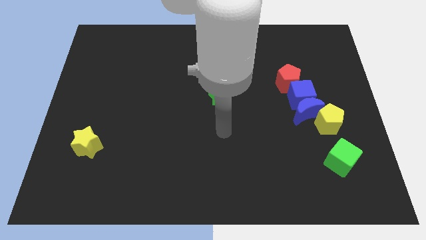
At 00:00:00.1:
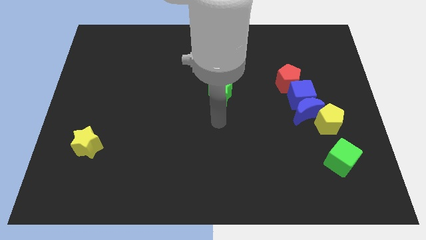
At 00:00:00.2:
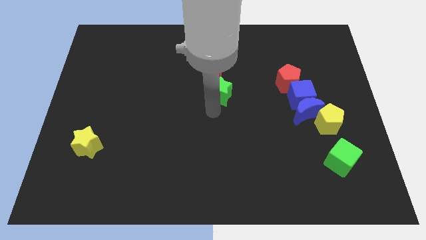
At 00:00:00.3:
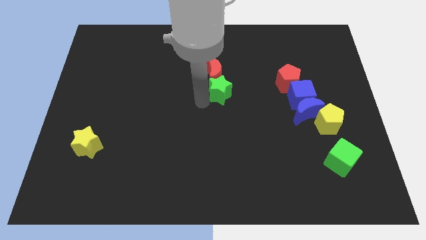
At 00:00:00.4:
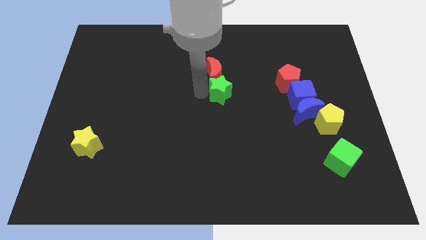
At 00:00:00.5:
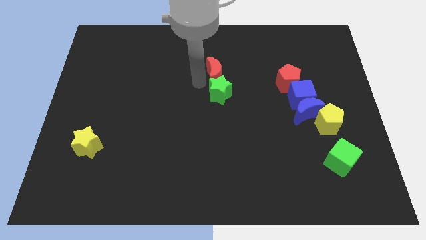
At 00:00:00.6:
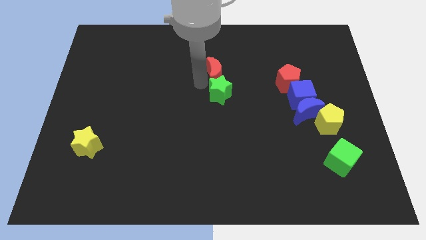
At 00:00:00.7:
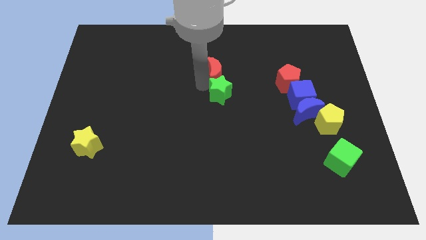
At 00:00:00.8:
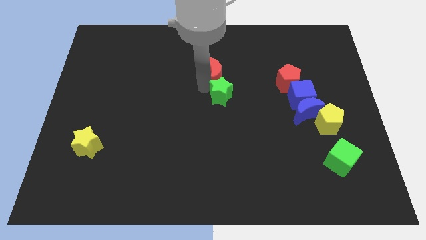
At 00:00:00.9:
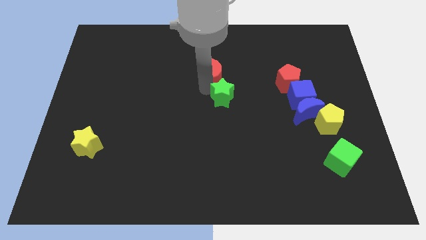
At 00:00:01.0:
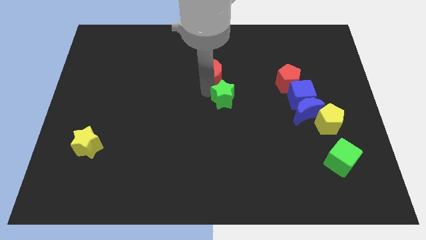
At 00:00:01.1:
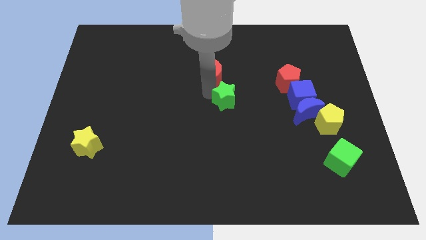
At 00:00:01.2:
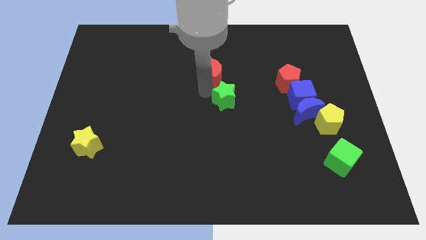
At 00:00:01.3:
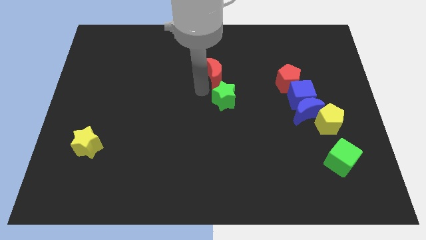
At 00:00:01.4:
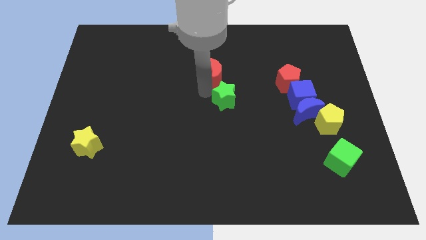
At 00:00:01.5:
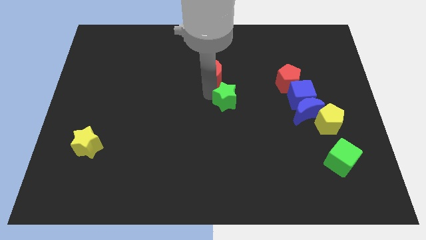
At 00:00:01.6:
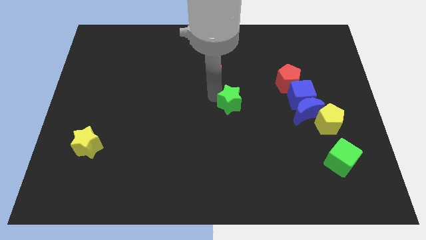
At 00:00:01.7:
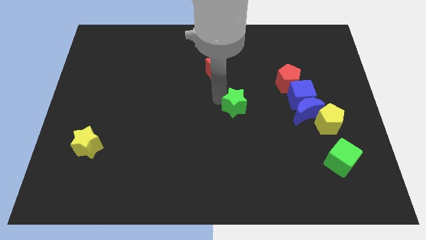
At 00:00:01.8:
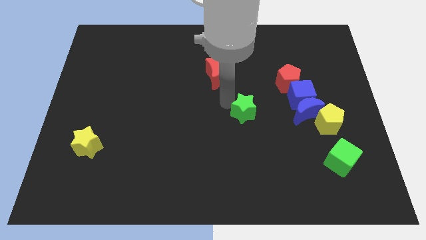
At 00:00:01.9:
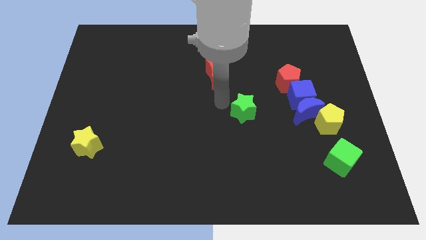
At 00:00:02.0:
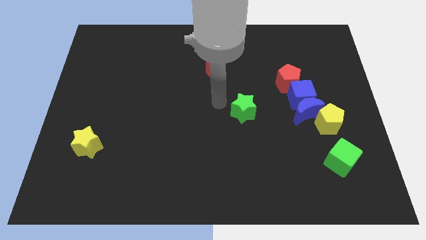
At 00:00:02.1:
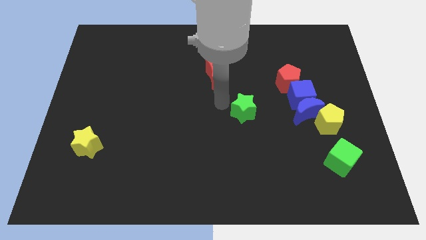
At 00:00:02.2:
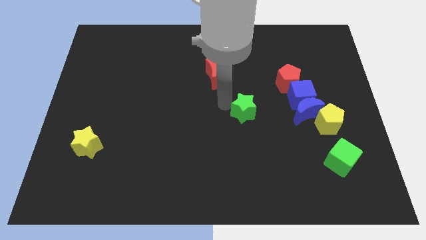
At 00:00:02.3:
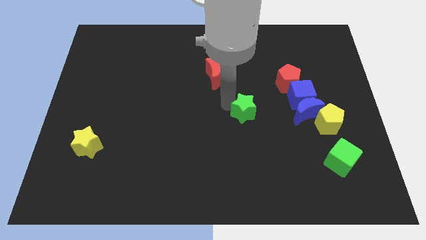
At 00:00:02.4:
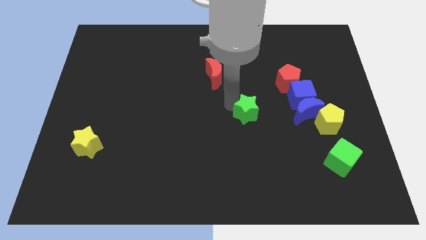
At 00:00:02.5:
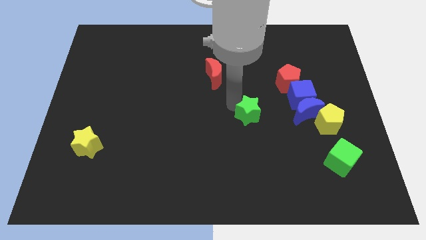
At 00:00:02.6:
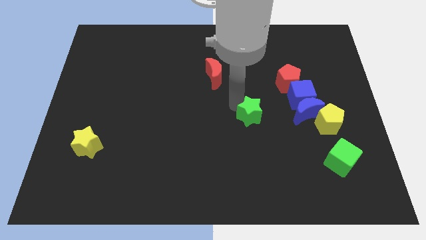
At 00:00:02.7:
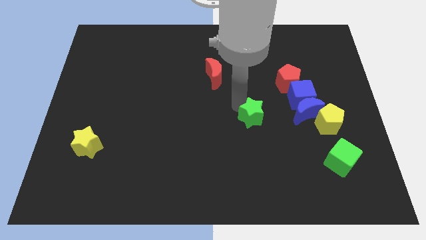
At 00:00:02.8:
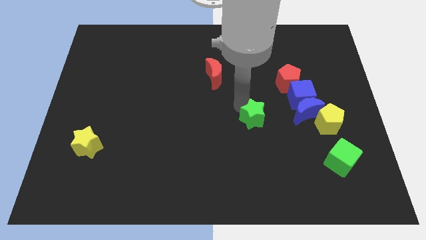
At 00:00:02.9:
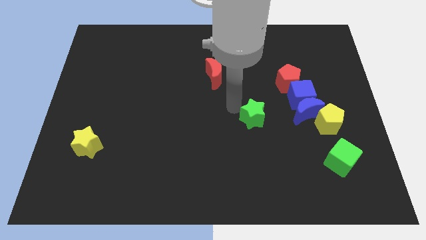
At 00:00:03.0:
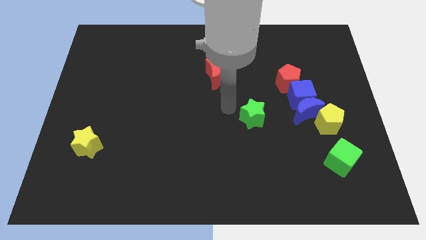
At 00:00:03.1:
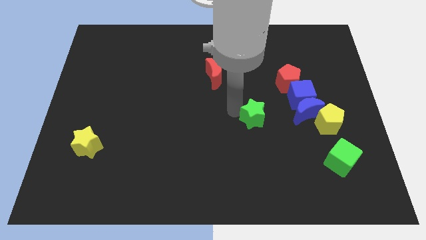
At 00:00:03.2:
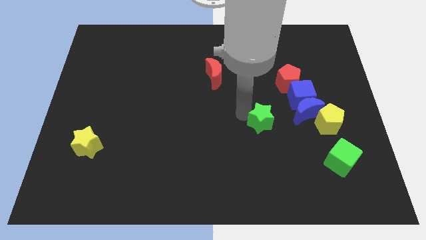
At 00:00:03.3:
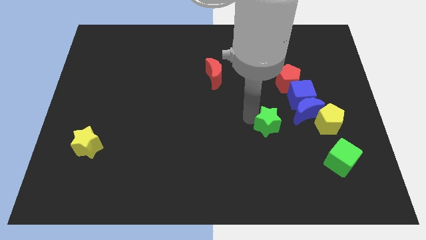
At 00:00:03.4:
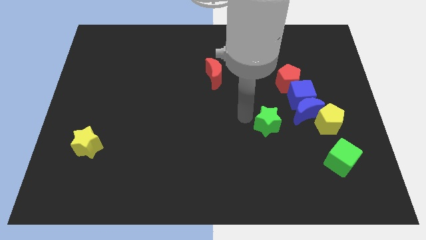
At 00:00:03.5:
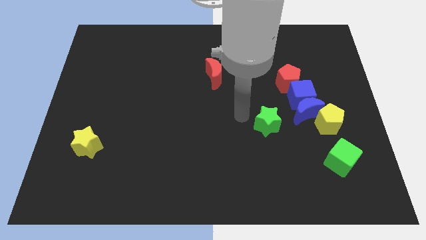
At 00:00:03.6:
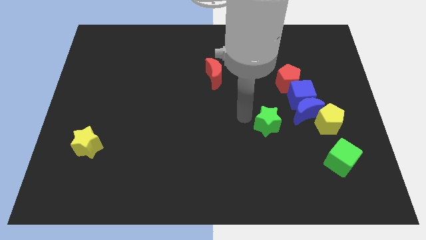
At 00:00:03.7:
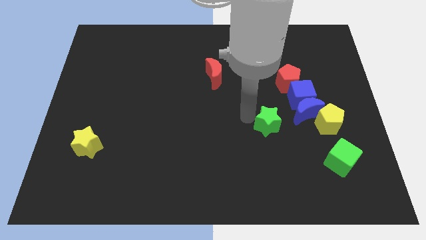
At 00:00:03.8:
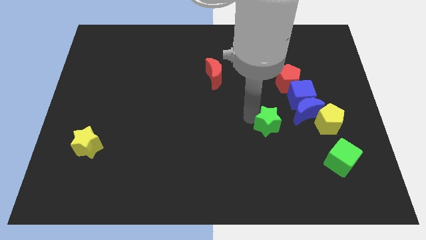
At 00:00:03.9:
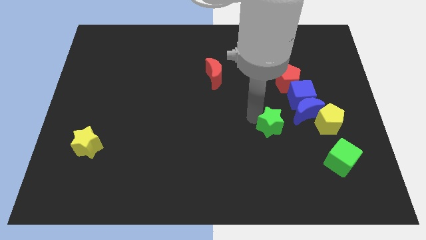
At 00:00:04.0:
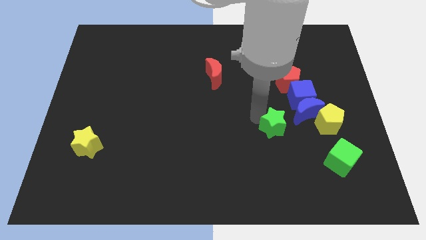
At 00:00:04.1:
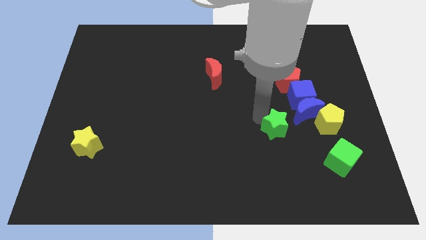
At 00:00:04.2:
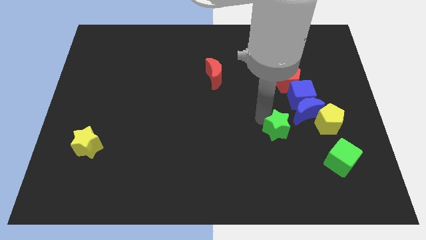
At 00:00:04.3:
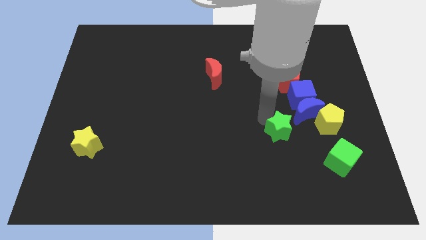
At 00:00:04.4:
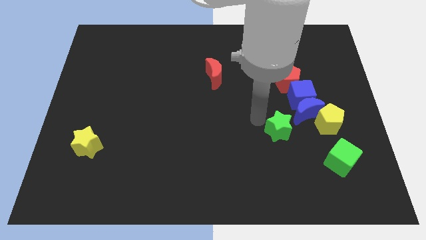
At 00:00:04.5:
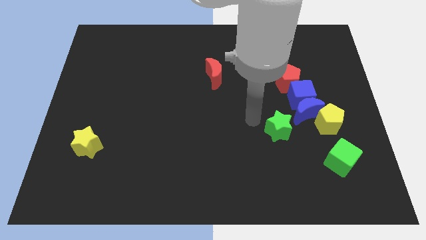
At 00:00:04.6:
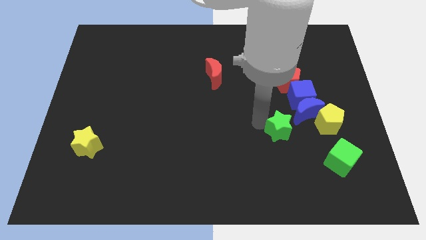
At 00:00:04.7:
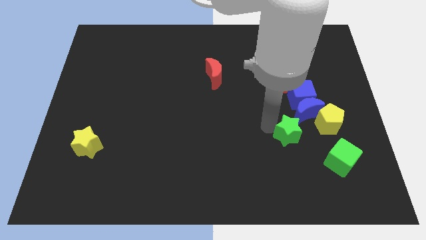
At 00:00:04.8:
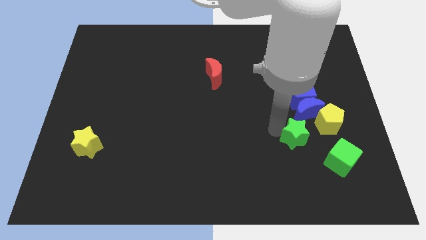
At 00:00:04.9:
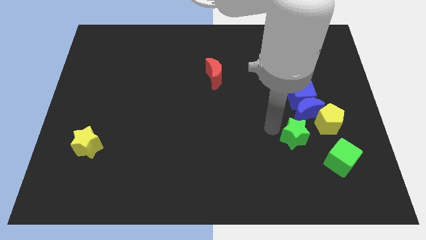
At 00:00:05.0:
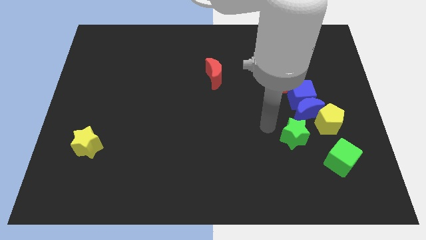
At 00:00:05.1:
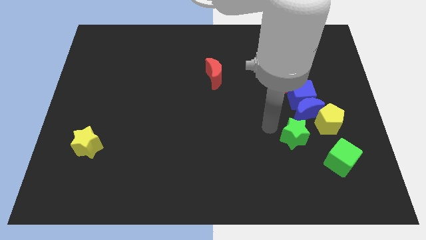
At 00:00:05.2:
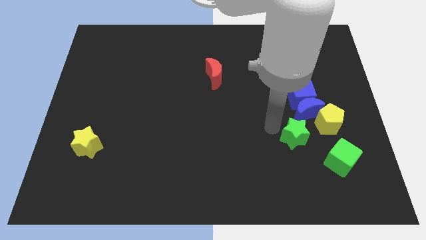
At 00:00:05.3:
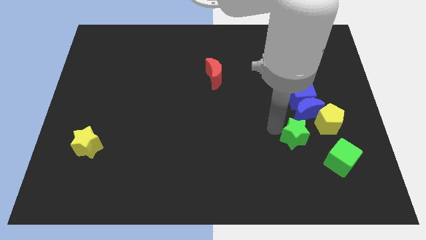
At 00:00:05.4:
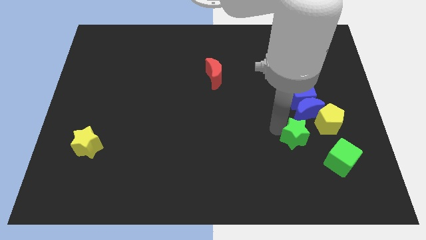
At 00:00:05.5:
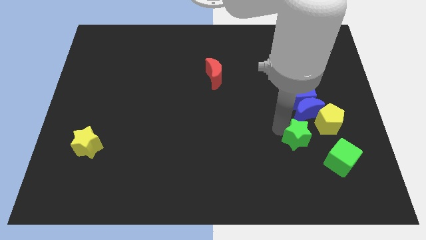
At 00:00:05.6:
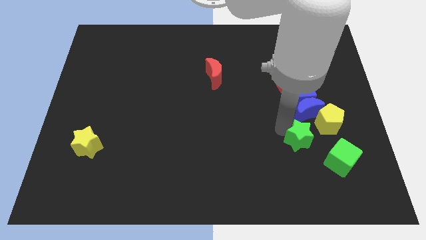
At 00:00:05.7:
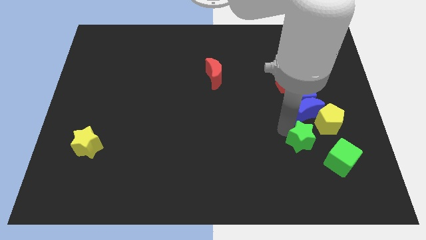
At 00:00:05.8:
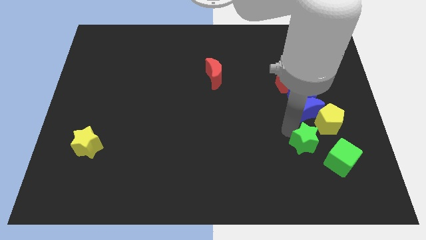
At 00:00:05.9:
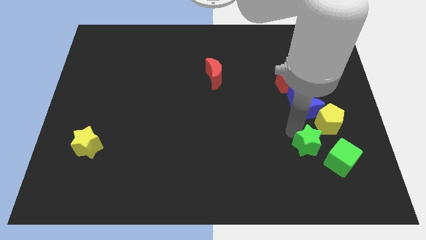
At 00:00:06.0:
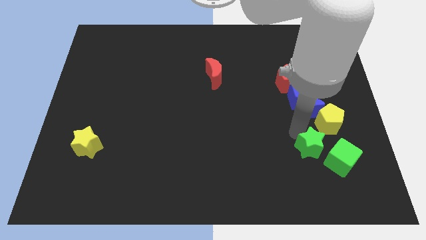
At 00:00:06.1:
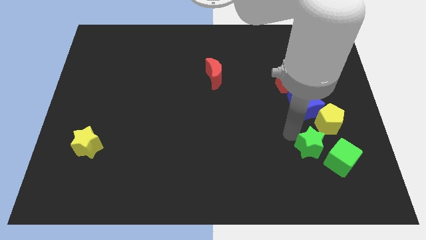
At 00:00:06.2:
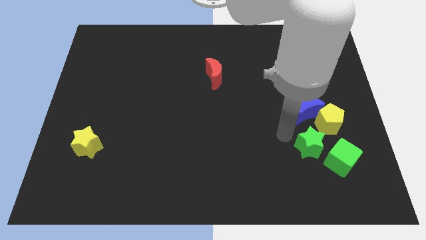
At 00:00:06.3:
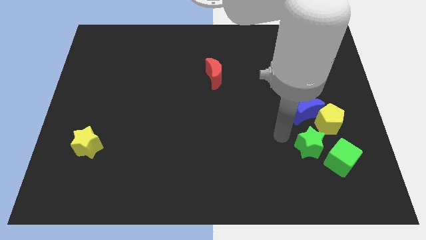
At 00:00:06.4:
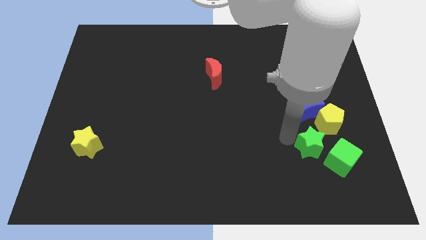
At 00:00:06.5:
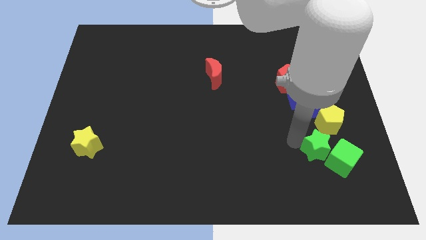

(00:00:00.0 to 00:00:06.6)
put the green star to the green cube
